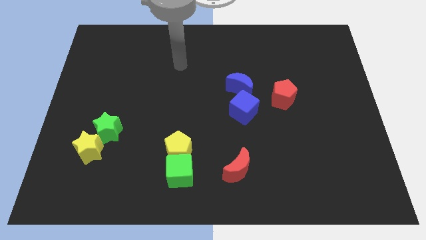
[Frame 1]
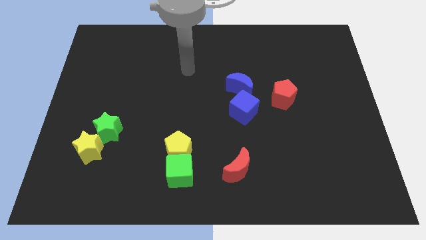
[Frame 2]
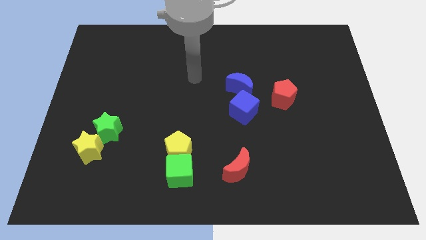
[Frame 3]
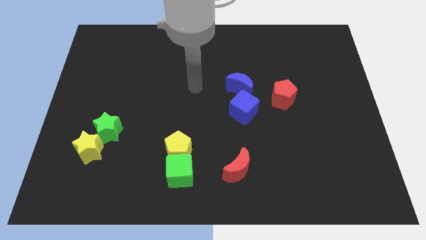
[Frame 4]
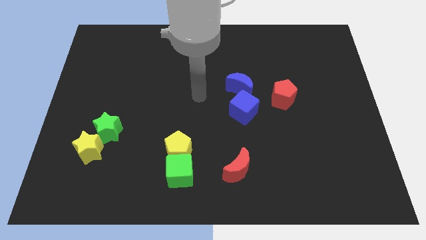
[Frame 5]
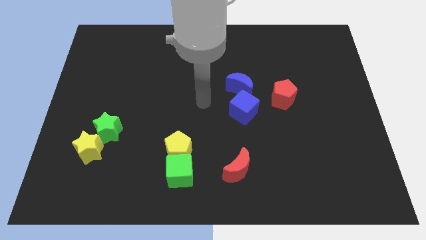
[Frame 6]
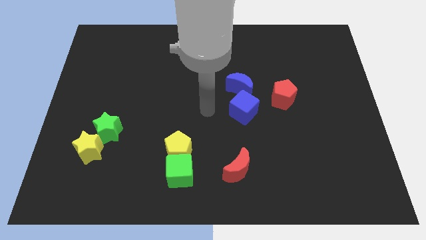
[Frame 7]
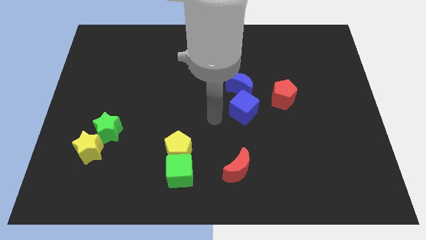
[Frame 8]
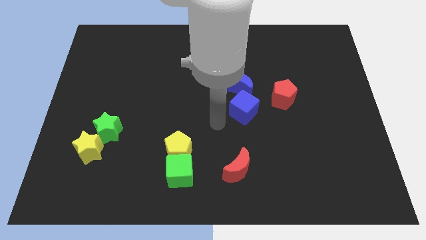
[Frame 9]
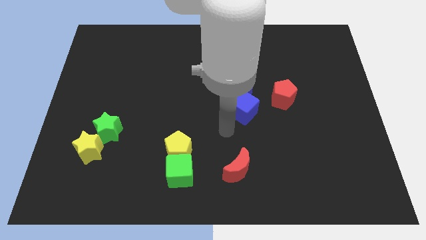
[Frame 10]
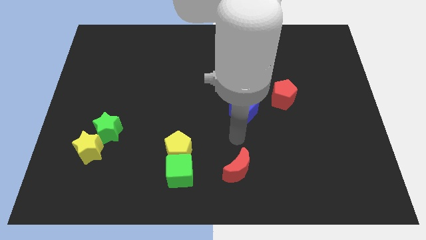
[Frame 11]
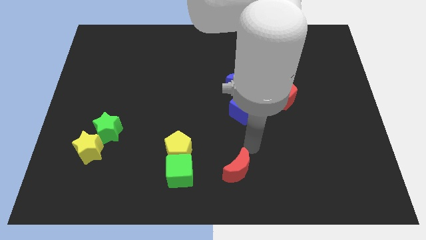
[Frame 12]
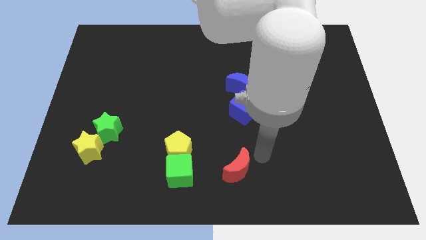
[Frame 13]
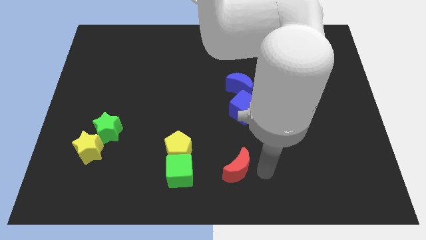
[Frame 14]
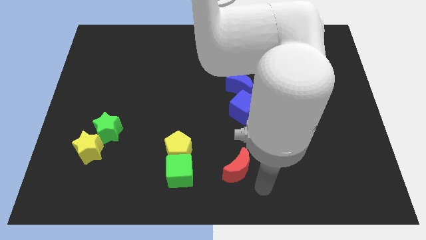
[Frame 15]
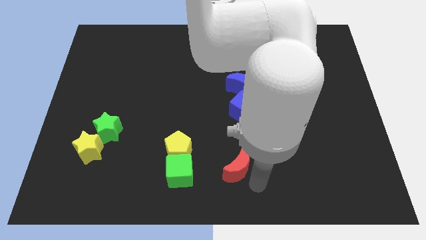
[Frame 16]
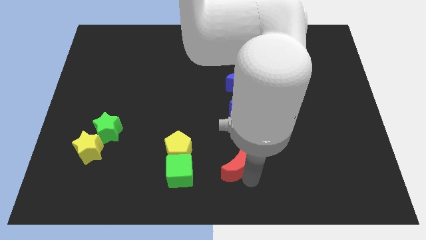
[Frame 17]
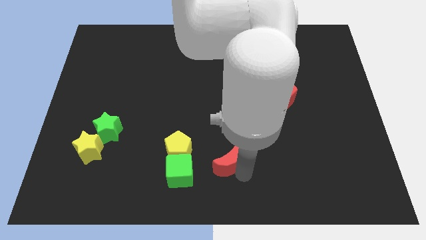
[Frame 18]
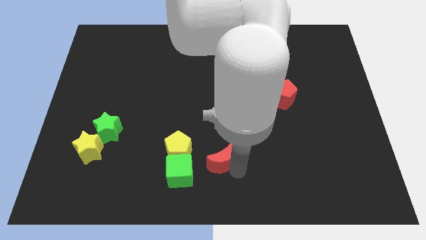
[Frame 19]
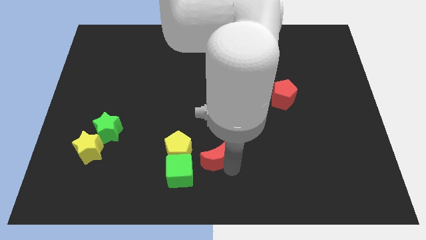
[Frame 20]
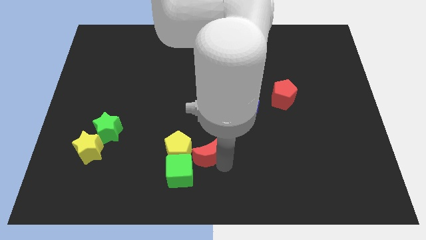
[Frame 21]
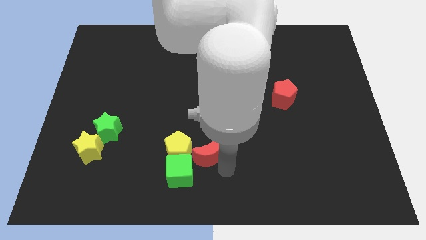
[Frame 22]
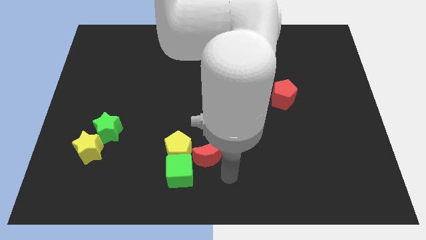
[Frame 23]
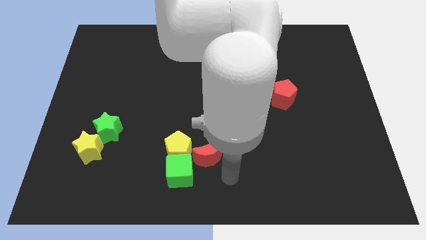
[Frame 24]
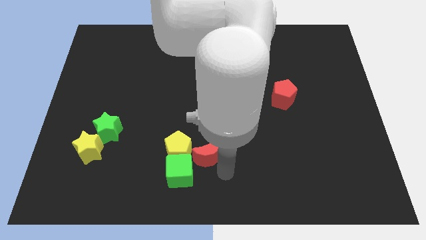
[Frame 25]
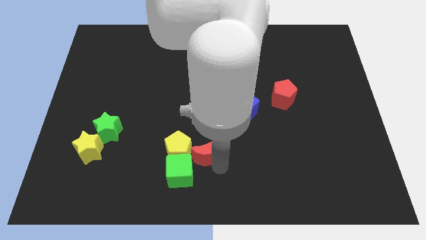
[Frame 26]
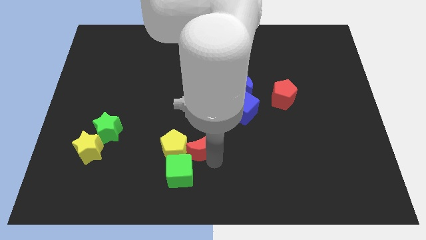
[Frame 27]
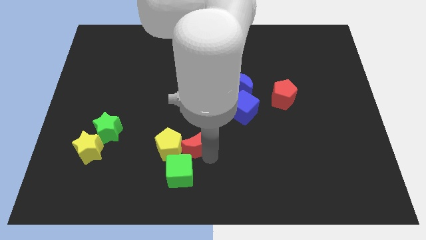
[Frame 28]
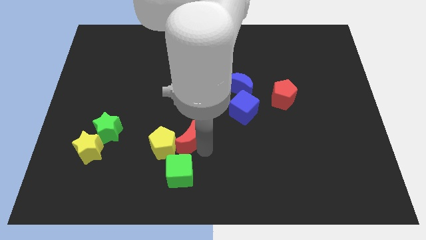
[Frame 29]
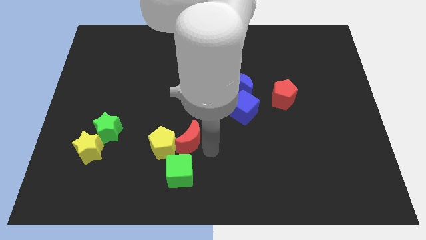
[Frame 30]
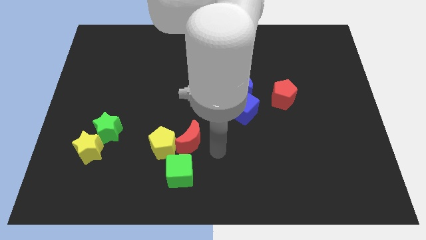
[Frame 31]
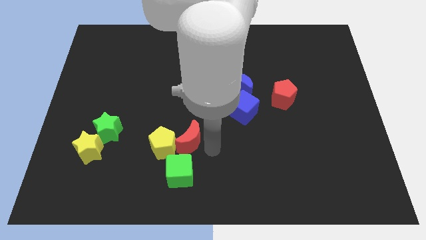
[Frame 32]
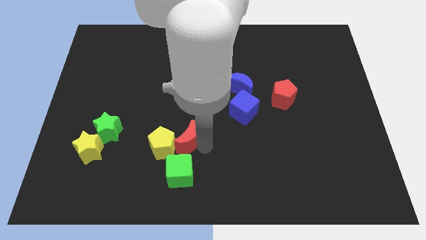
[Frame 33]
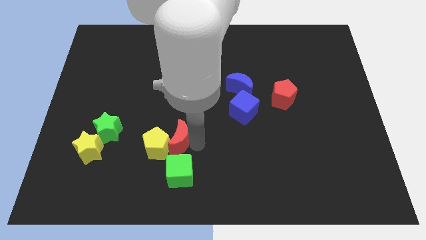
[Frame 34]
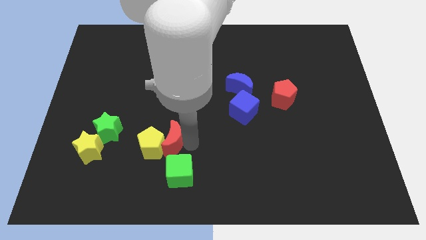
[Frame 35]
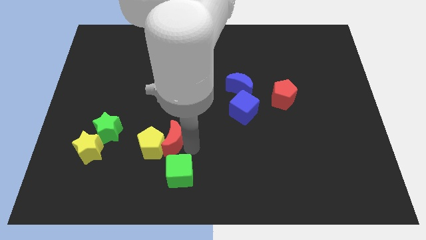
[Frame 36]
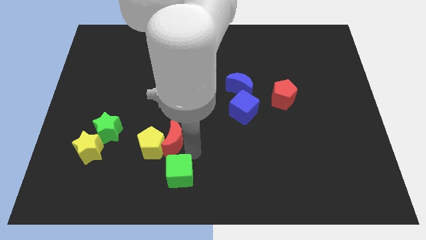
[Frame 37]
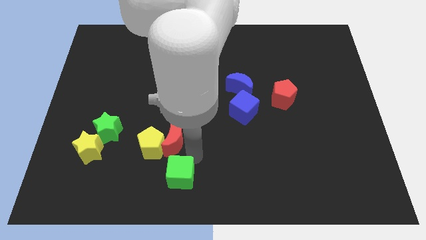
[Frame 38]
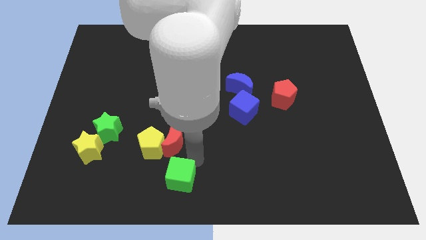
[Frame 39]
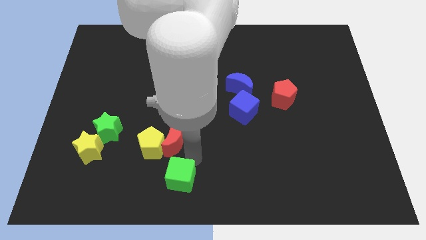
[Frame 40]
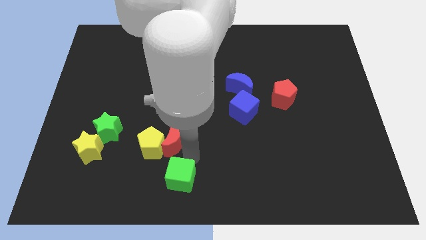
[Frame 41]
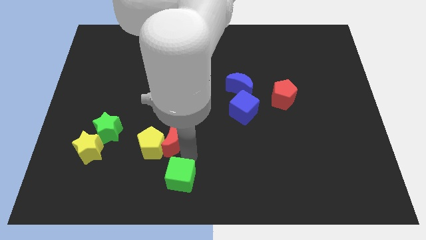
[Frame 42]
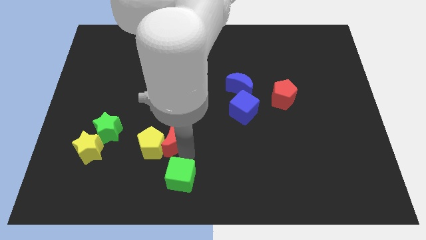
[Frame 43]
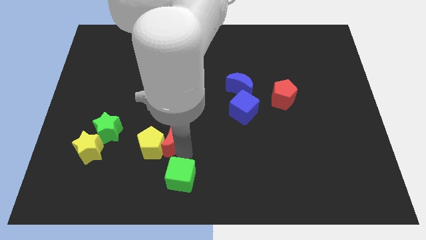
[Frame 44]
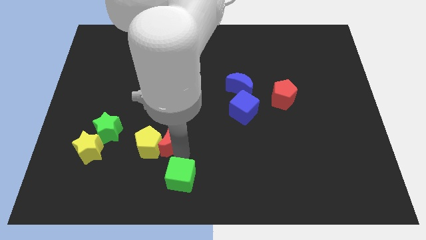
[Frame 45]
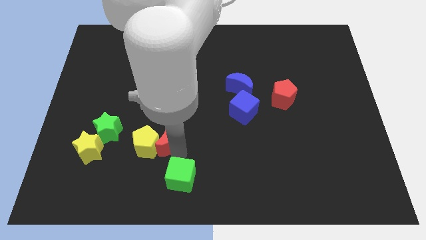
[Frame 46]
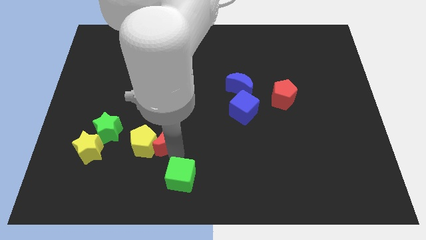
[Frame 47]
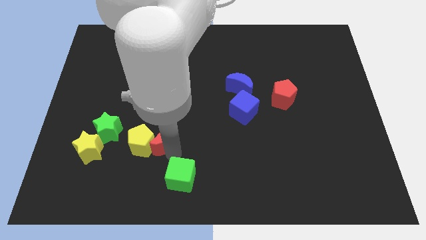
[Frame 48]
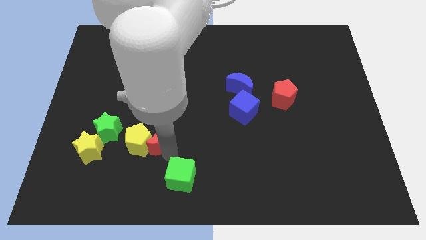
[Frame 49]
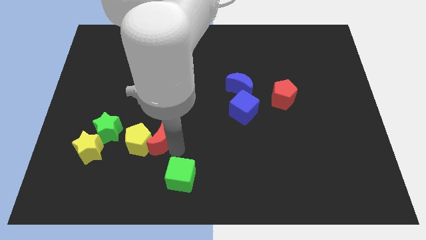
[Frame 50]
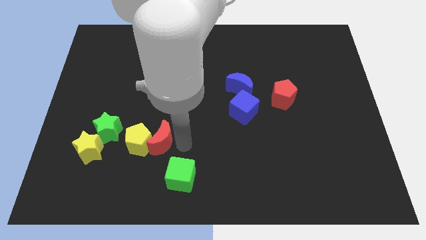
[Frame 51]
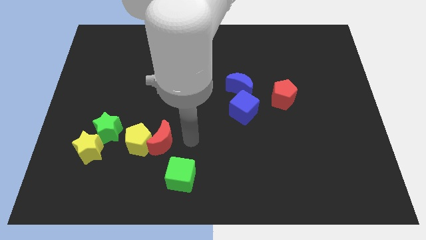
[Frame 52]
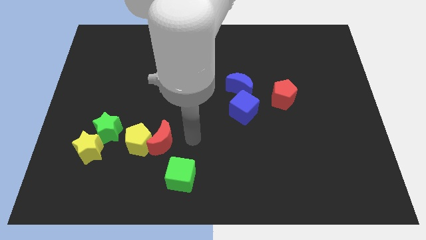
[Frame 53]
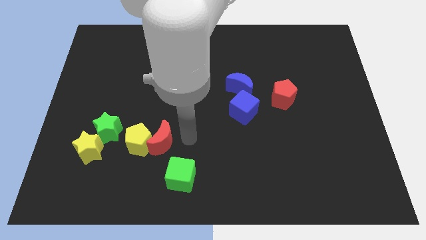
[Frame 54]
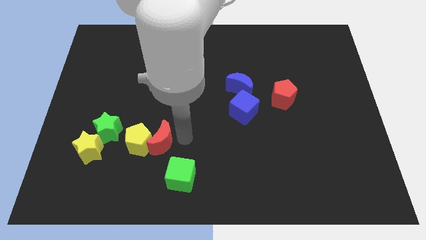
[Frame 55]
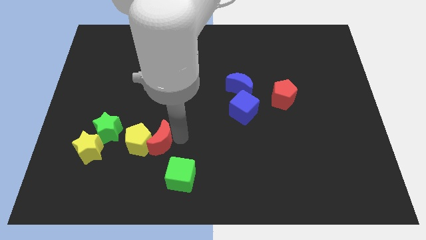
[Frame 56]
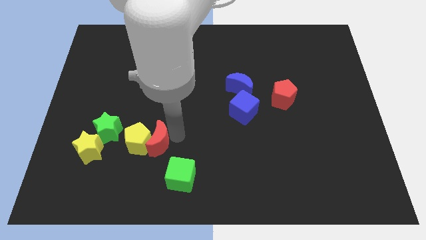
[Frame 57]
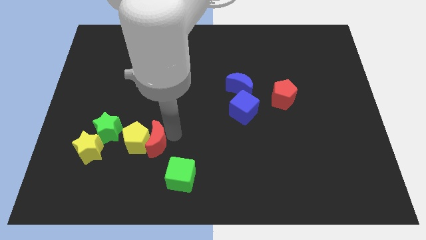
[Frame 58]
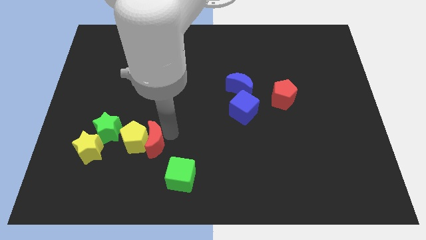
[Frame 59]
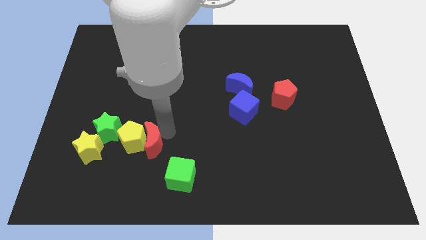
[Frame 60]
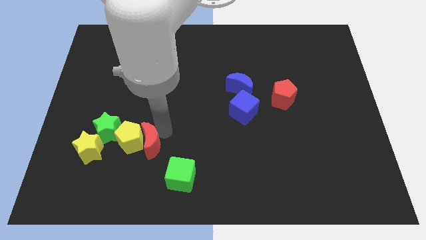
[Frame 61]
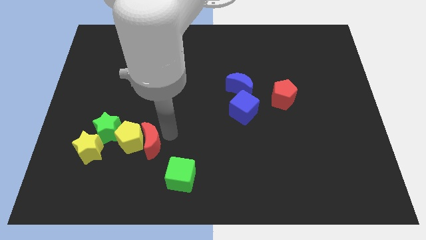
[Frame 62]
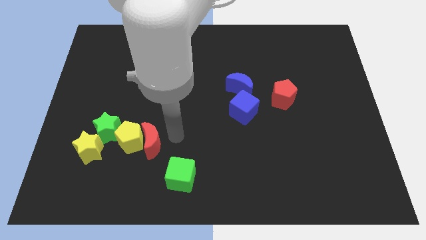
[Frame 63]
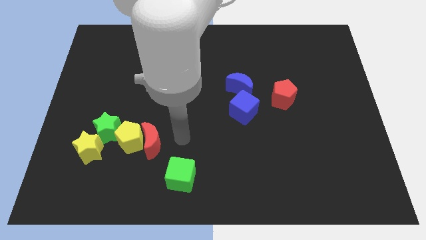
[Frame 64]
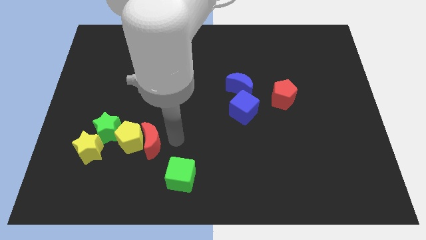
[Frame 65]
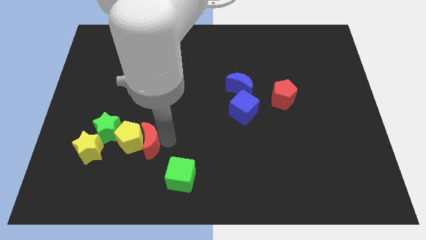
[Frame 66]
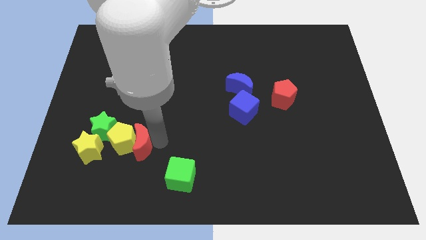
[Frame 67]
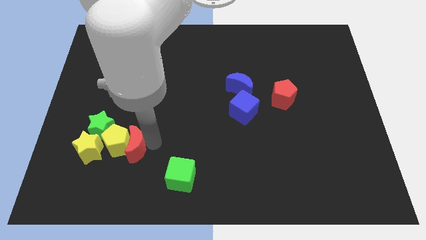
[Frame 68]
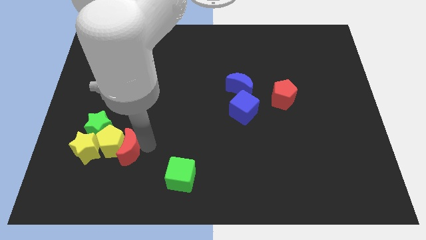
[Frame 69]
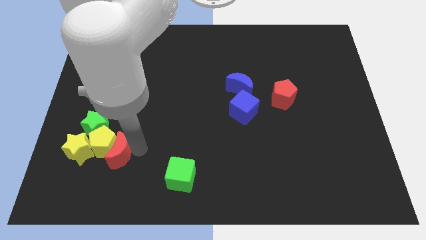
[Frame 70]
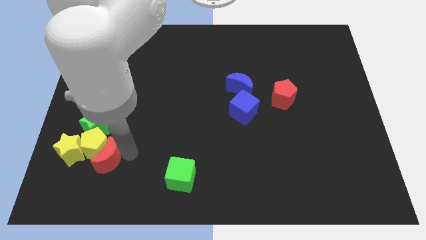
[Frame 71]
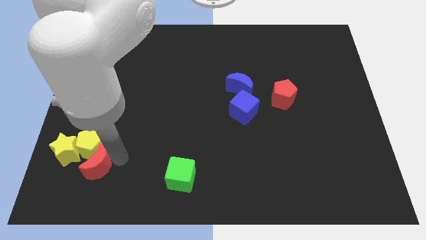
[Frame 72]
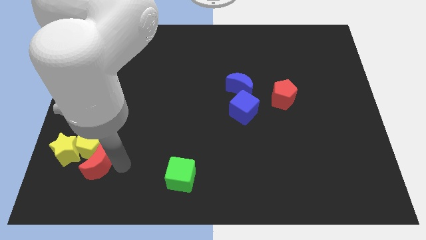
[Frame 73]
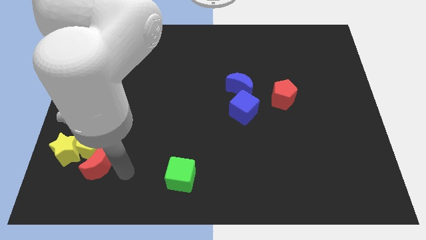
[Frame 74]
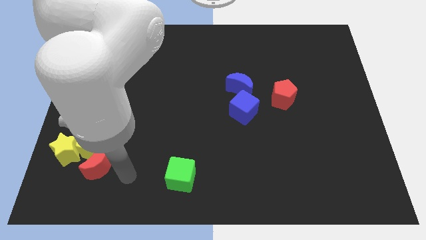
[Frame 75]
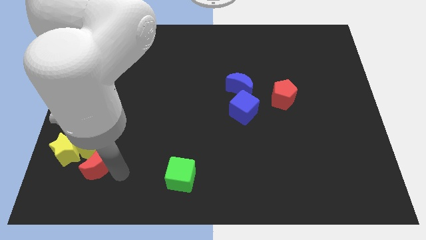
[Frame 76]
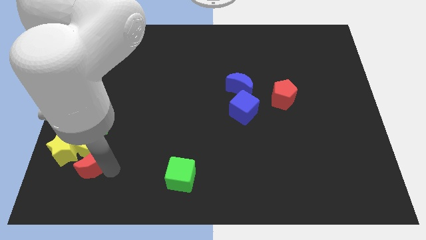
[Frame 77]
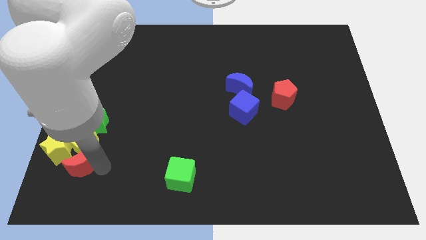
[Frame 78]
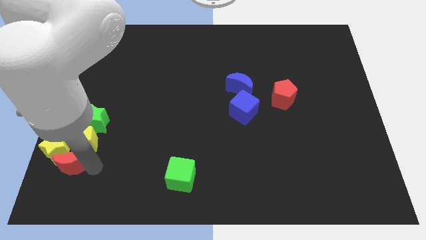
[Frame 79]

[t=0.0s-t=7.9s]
move the red moon close to the yellow star
